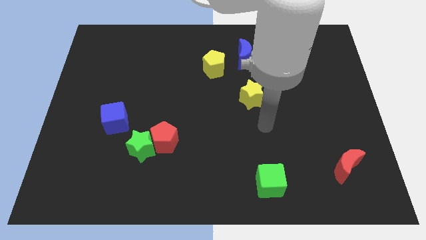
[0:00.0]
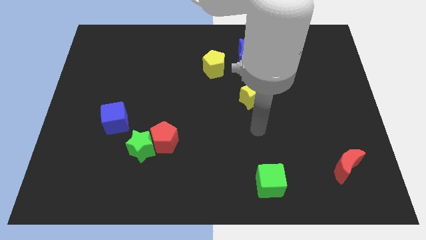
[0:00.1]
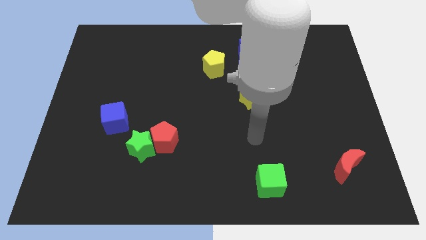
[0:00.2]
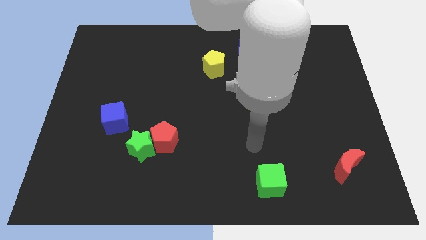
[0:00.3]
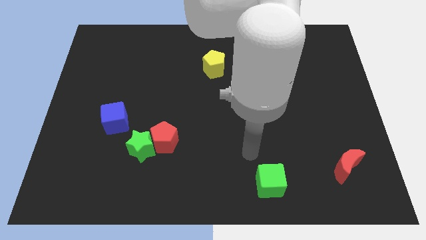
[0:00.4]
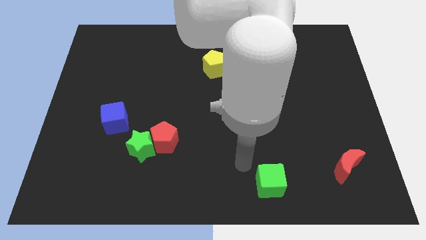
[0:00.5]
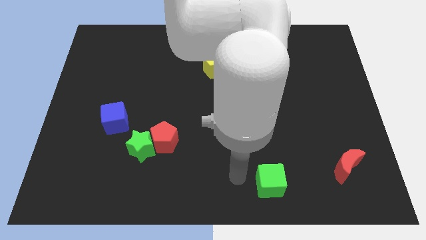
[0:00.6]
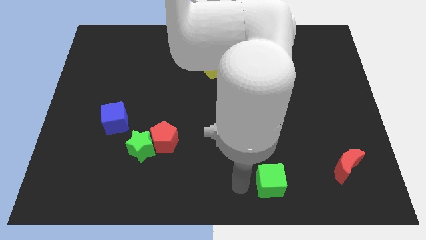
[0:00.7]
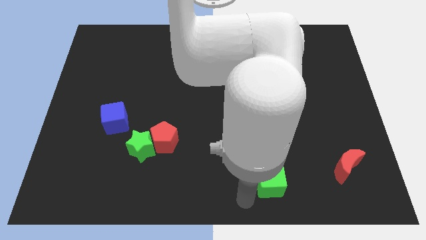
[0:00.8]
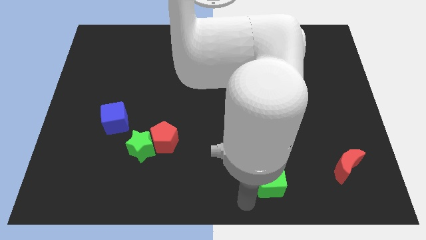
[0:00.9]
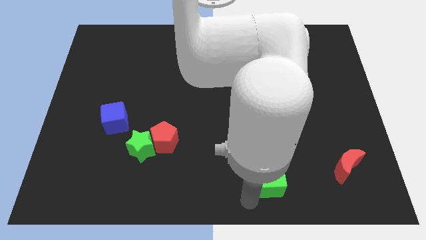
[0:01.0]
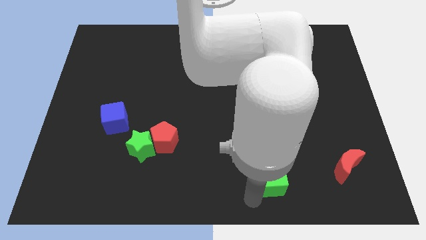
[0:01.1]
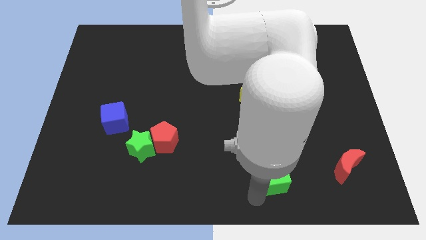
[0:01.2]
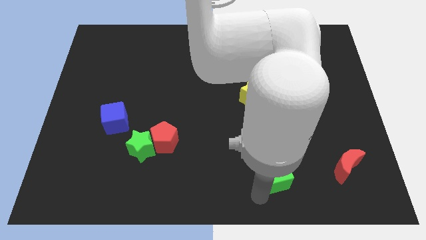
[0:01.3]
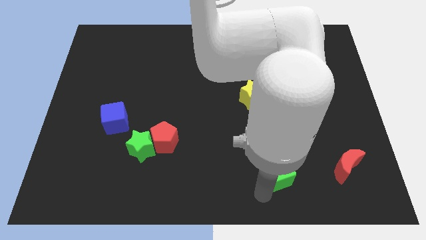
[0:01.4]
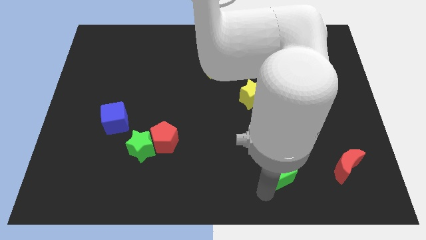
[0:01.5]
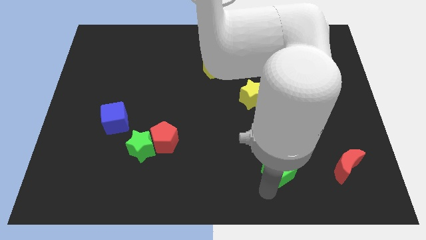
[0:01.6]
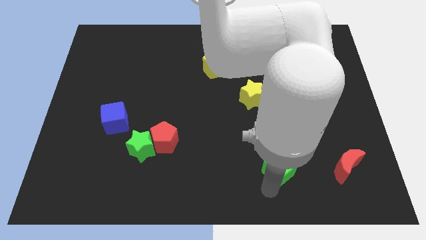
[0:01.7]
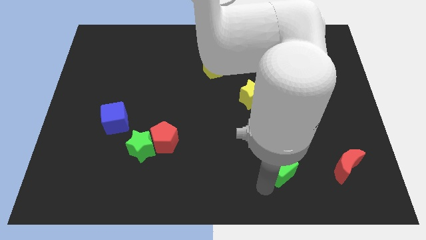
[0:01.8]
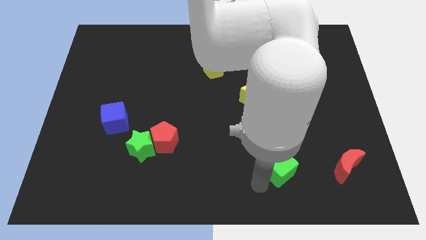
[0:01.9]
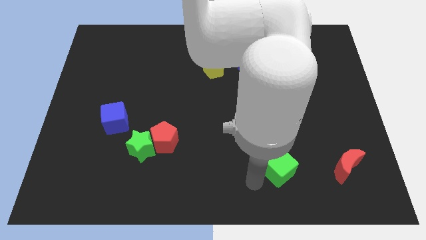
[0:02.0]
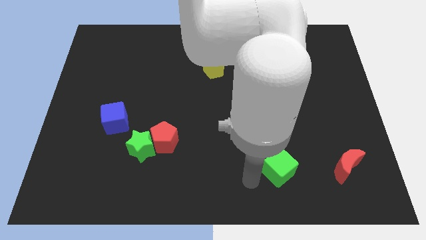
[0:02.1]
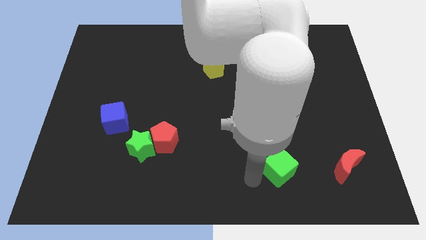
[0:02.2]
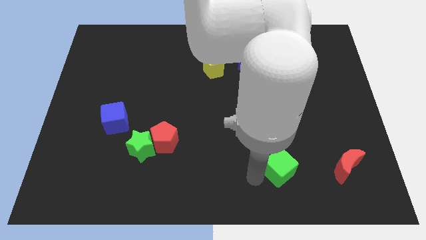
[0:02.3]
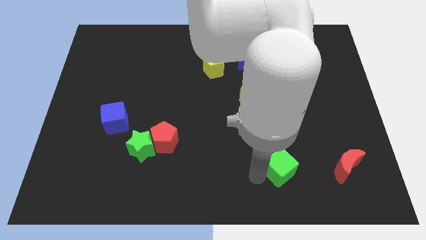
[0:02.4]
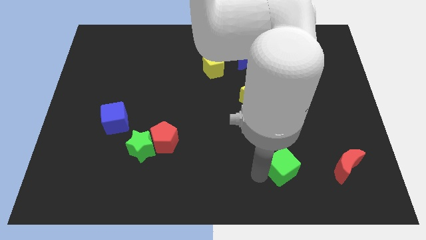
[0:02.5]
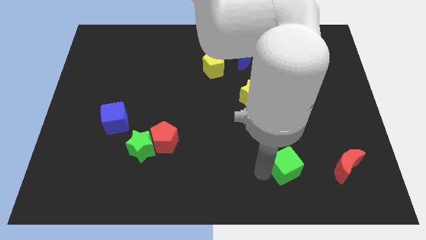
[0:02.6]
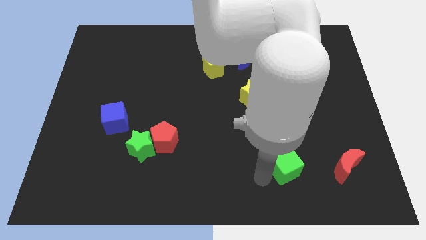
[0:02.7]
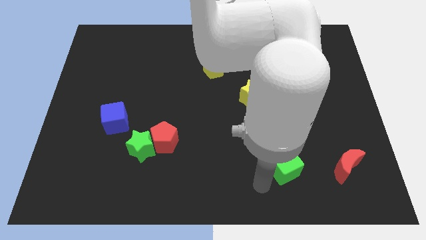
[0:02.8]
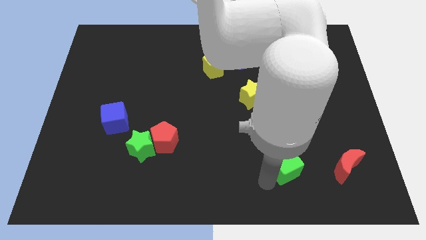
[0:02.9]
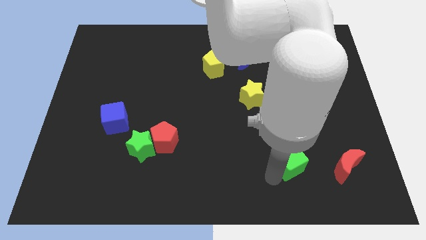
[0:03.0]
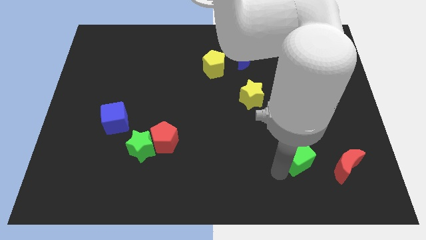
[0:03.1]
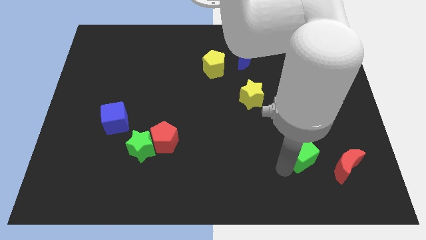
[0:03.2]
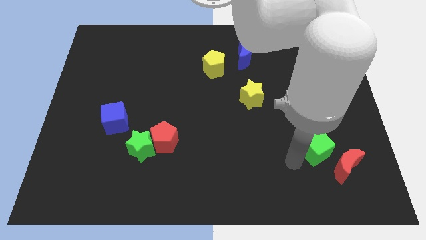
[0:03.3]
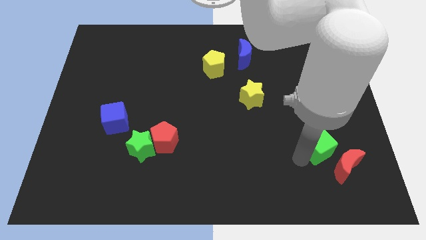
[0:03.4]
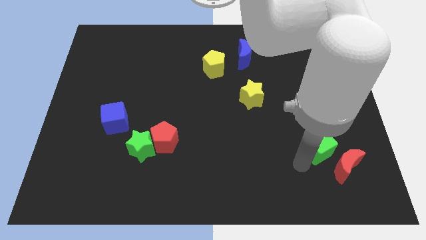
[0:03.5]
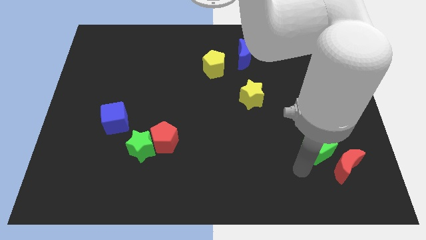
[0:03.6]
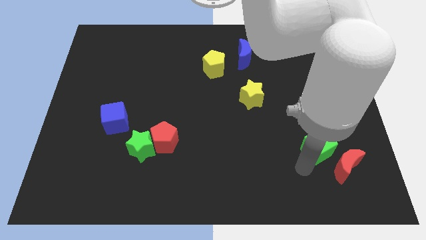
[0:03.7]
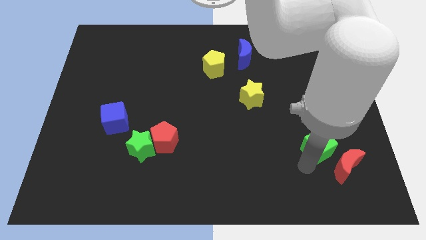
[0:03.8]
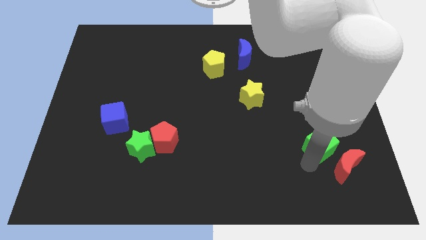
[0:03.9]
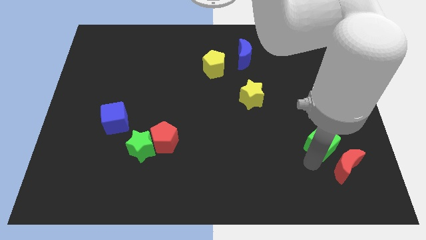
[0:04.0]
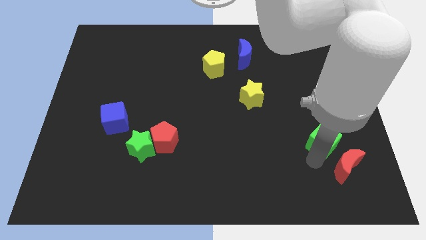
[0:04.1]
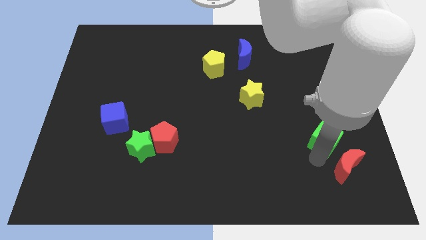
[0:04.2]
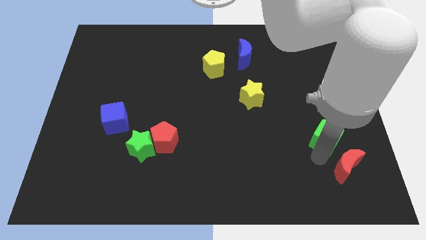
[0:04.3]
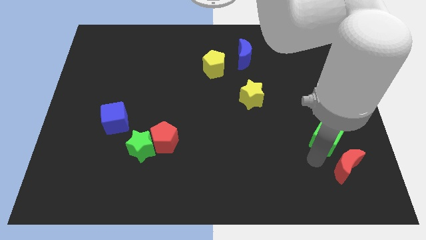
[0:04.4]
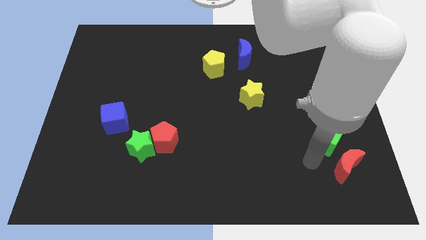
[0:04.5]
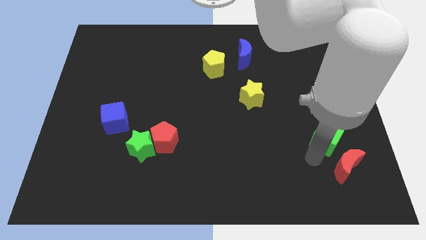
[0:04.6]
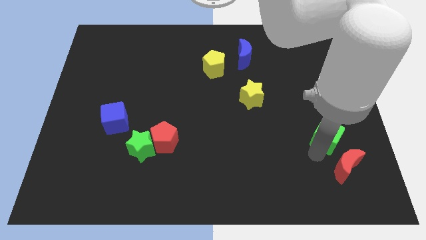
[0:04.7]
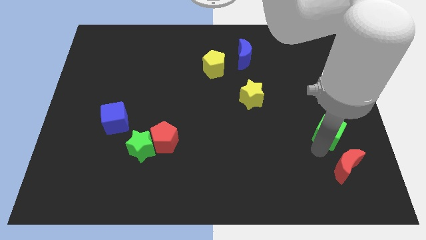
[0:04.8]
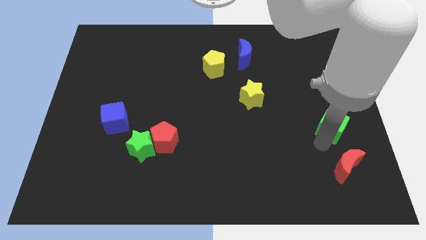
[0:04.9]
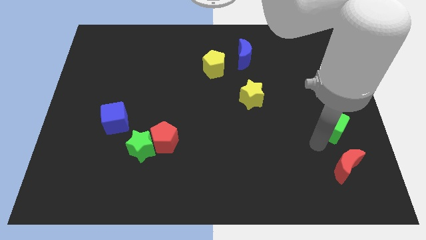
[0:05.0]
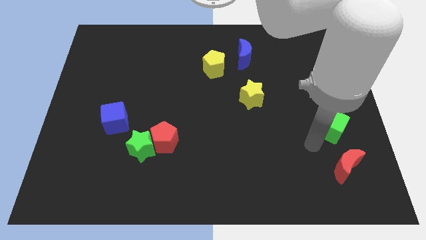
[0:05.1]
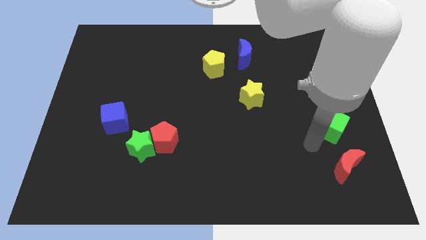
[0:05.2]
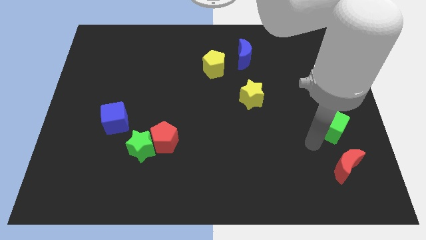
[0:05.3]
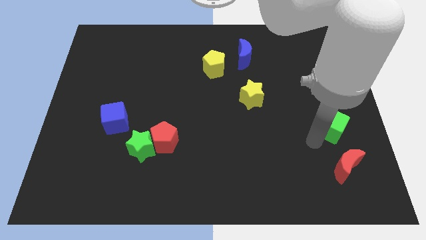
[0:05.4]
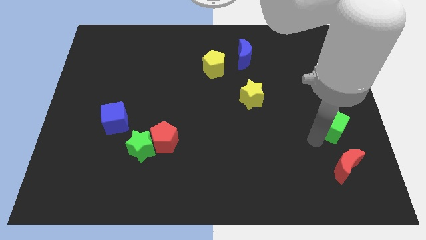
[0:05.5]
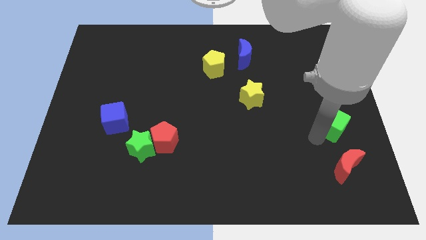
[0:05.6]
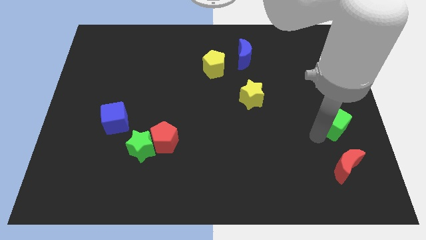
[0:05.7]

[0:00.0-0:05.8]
slide the green cube to the center right

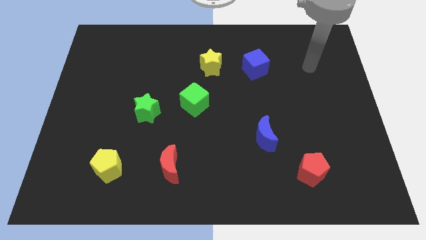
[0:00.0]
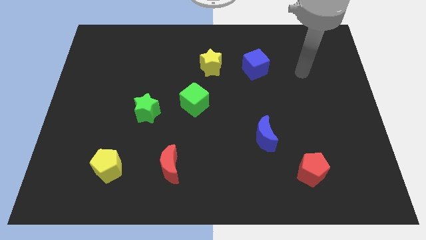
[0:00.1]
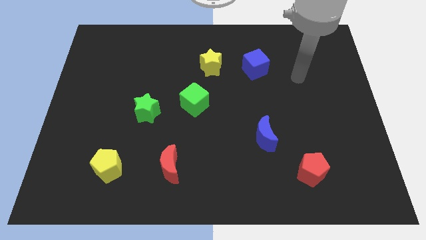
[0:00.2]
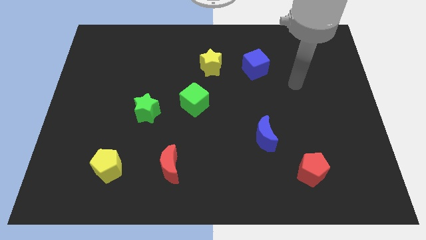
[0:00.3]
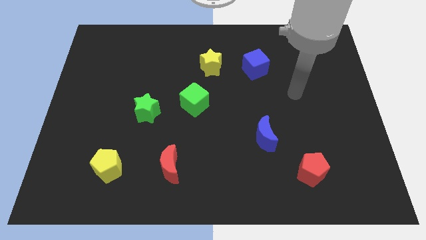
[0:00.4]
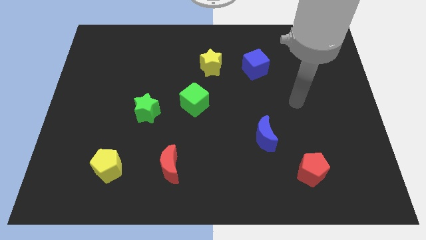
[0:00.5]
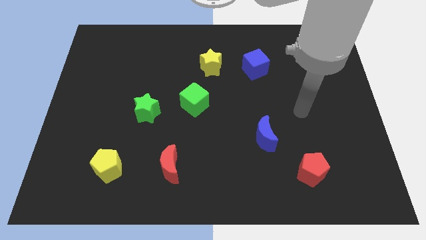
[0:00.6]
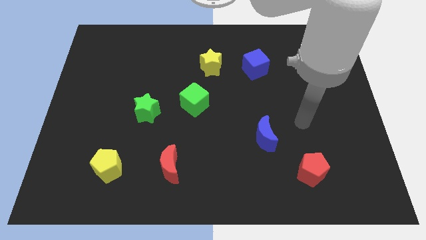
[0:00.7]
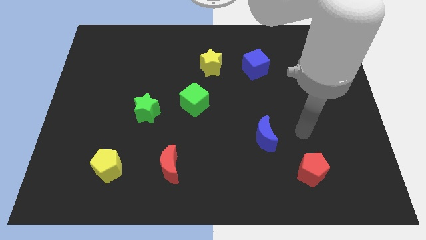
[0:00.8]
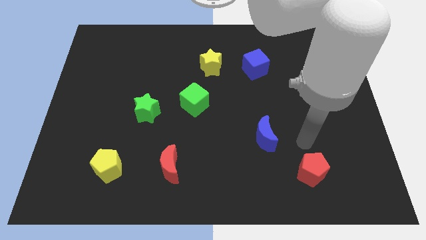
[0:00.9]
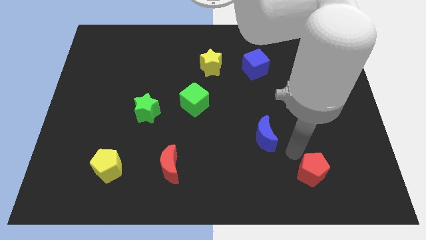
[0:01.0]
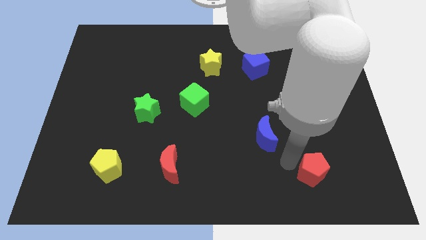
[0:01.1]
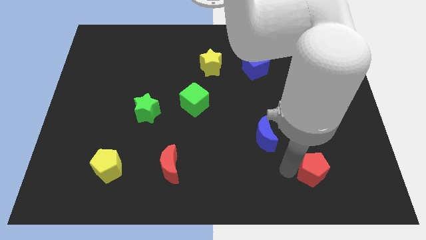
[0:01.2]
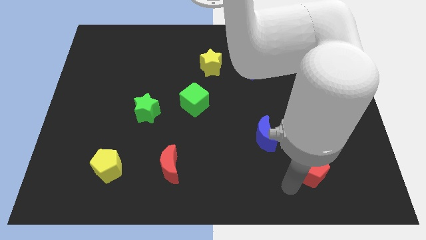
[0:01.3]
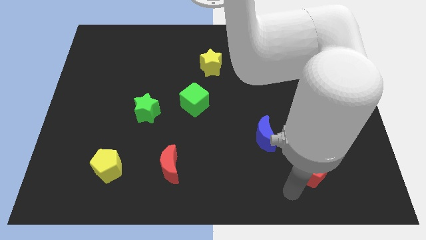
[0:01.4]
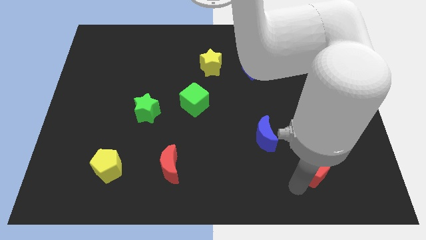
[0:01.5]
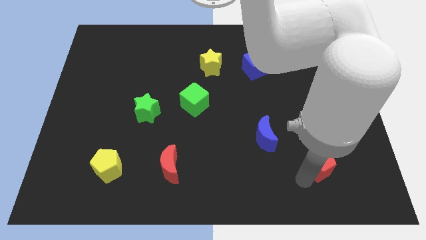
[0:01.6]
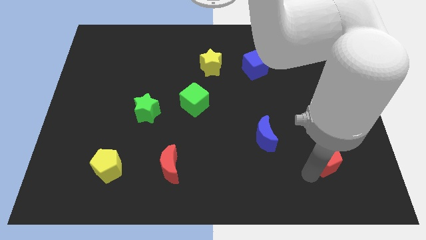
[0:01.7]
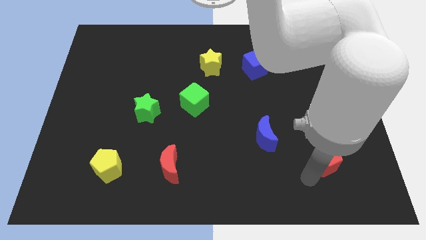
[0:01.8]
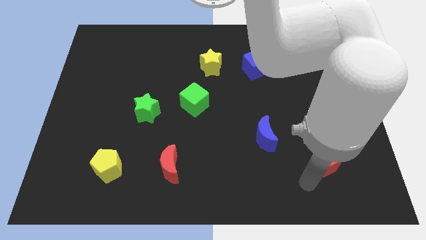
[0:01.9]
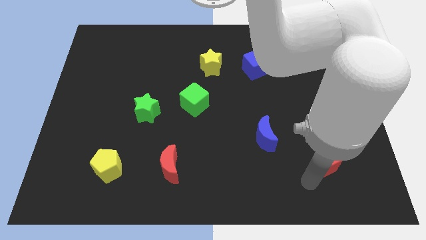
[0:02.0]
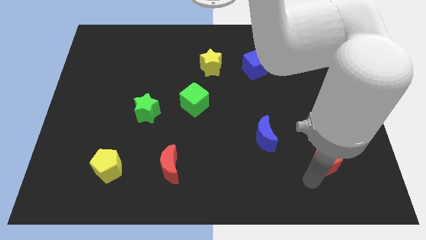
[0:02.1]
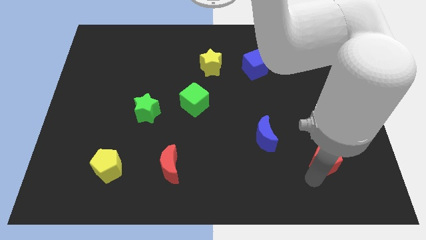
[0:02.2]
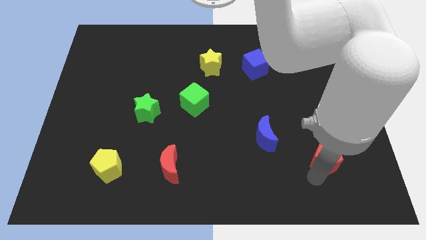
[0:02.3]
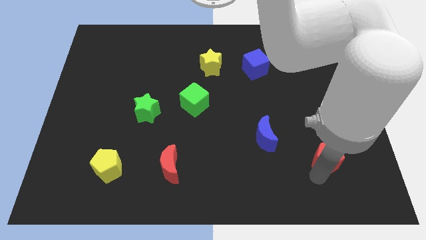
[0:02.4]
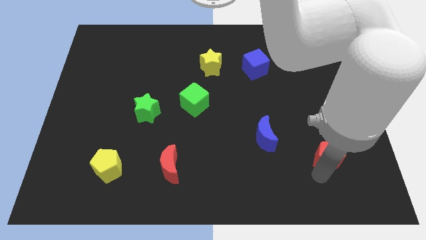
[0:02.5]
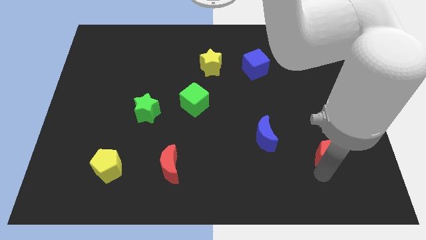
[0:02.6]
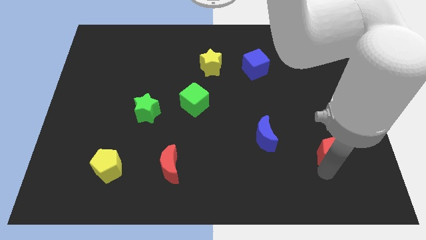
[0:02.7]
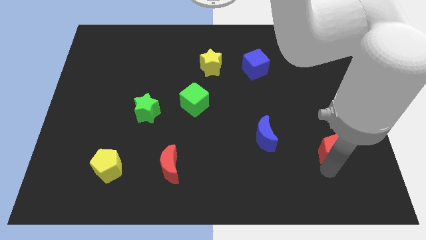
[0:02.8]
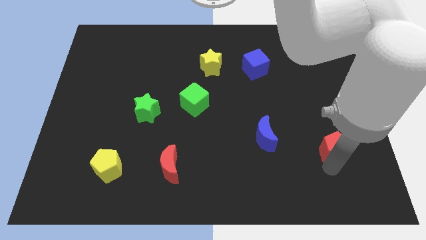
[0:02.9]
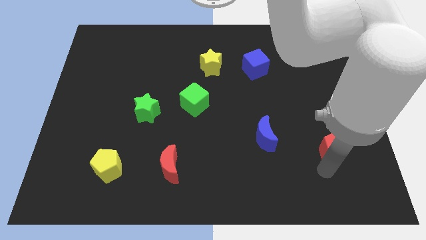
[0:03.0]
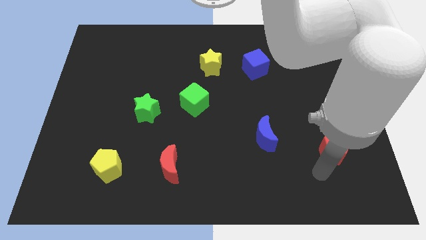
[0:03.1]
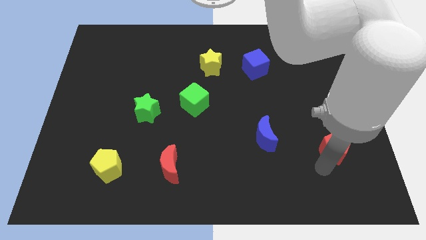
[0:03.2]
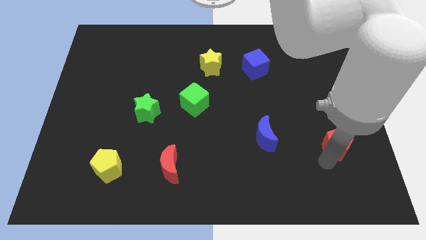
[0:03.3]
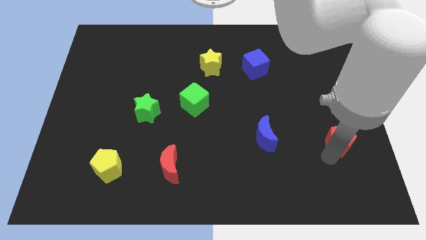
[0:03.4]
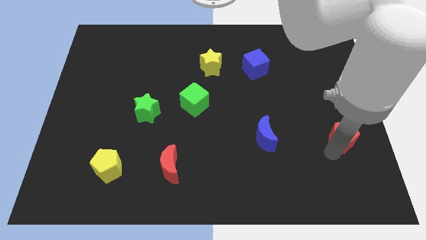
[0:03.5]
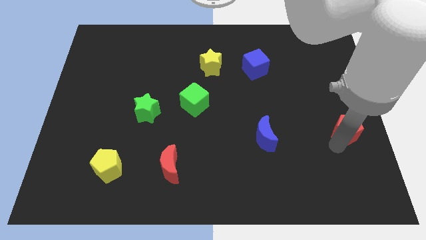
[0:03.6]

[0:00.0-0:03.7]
move the red pentagon to the right side
